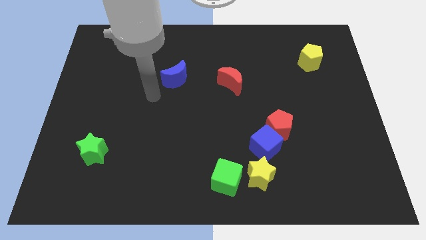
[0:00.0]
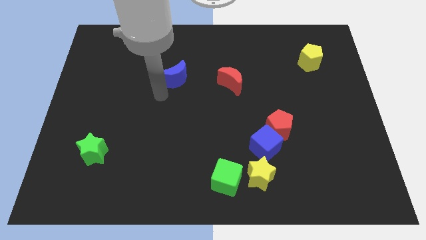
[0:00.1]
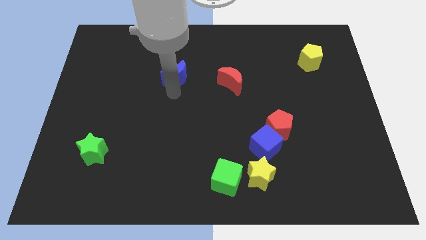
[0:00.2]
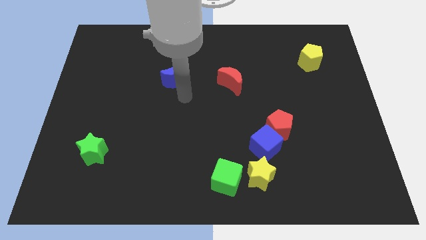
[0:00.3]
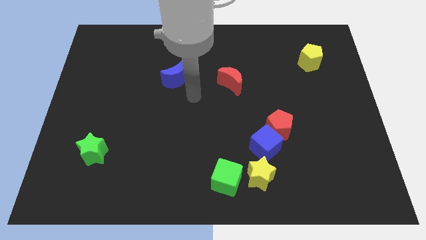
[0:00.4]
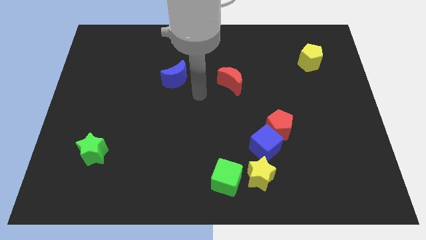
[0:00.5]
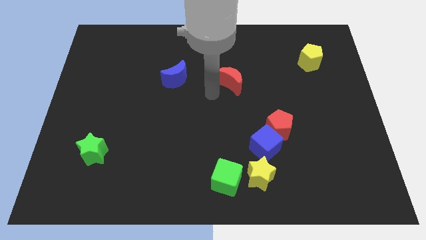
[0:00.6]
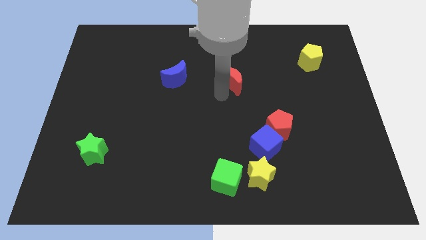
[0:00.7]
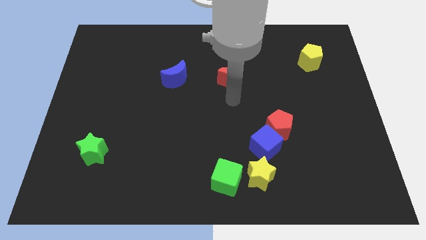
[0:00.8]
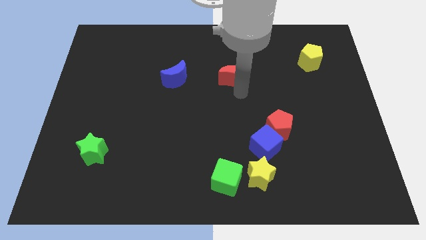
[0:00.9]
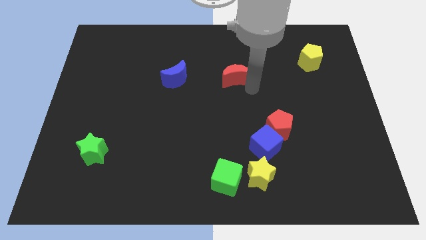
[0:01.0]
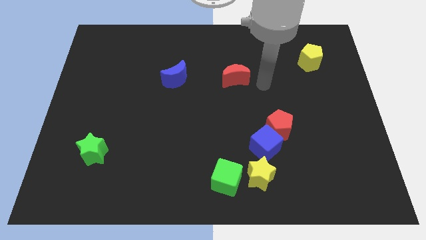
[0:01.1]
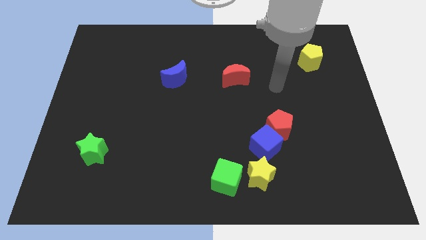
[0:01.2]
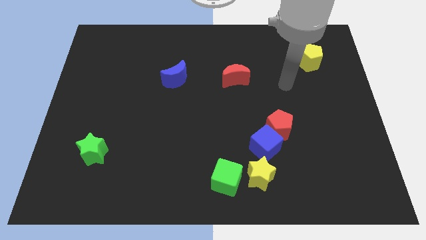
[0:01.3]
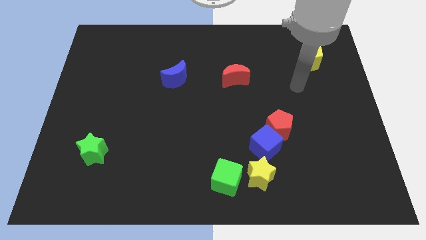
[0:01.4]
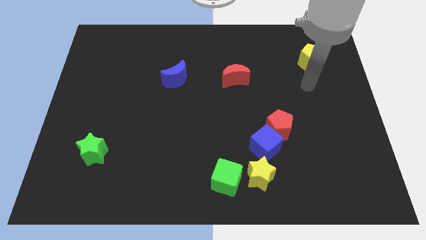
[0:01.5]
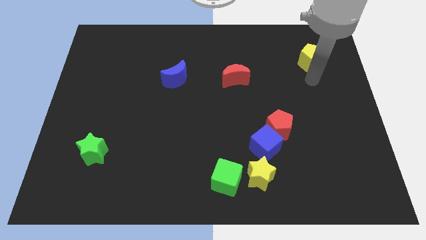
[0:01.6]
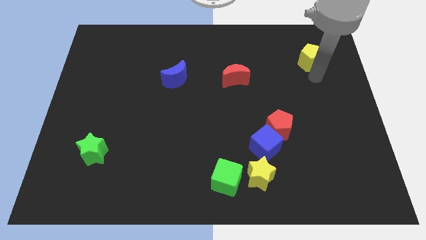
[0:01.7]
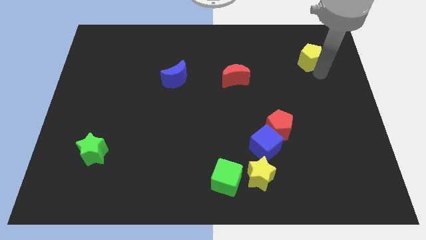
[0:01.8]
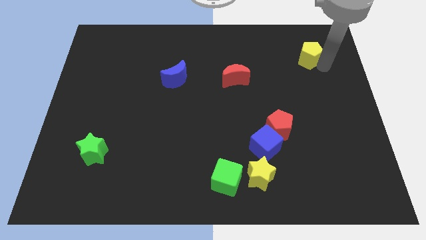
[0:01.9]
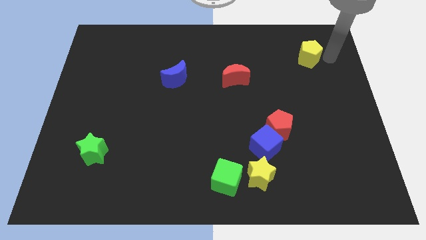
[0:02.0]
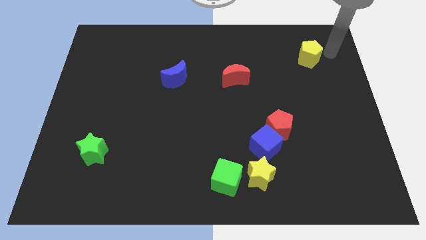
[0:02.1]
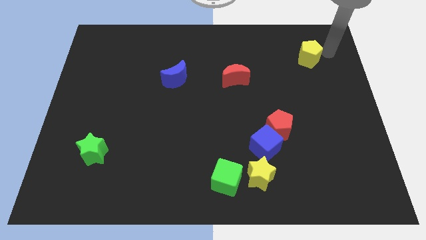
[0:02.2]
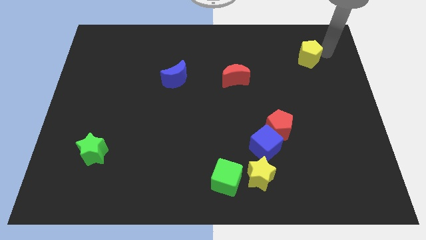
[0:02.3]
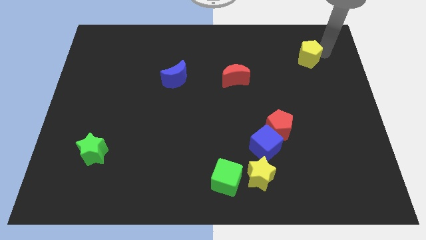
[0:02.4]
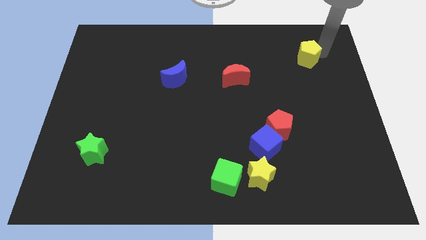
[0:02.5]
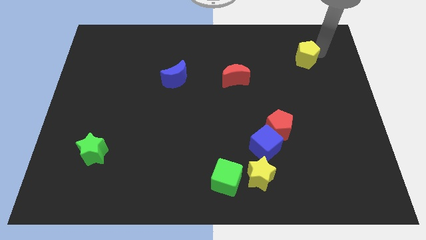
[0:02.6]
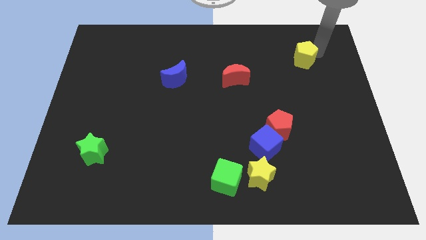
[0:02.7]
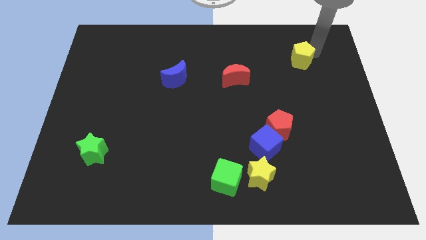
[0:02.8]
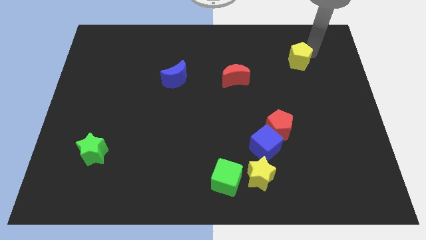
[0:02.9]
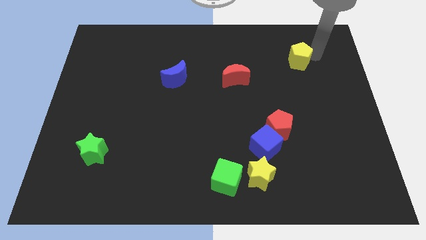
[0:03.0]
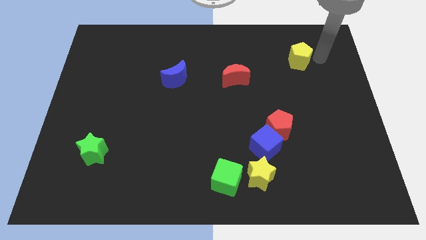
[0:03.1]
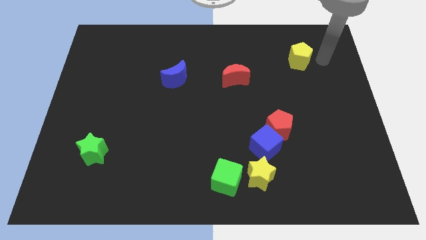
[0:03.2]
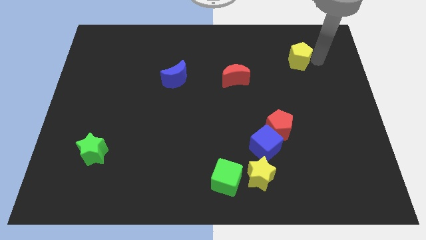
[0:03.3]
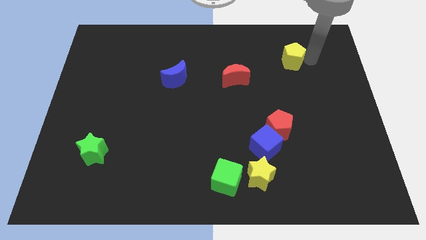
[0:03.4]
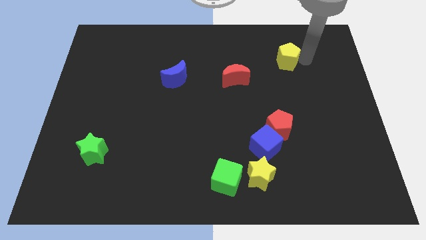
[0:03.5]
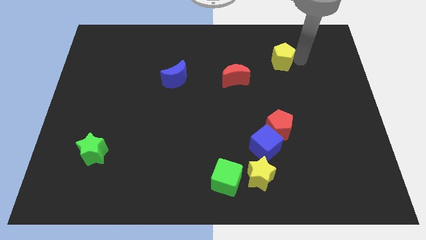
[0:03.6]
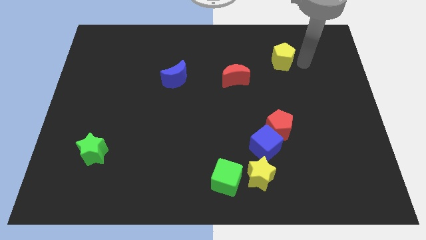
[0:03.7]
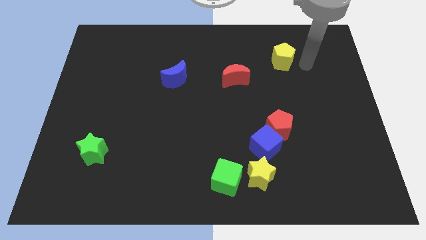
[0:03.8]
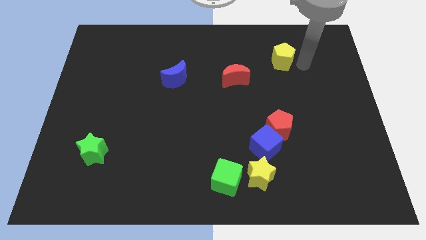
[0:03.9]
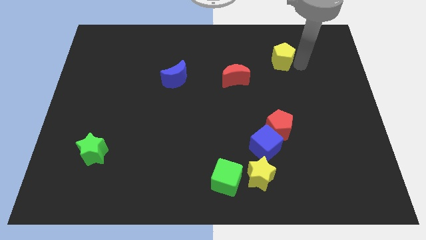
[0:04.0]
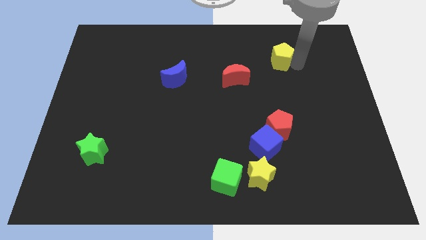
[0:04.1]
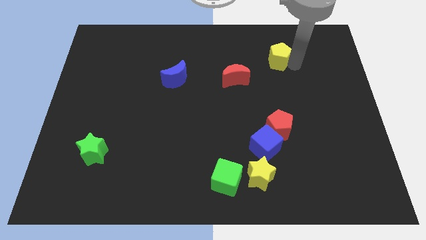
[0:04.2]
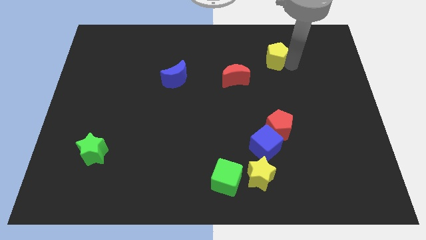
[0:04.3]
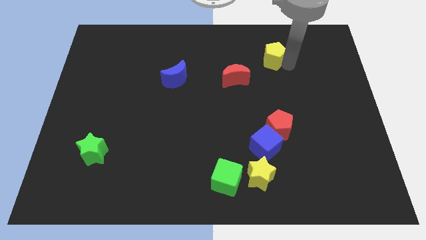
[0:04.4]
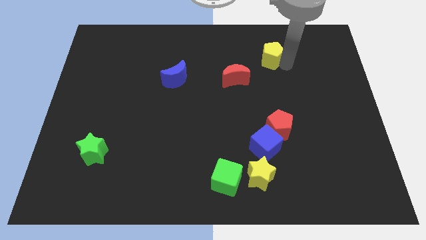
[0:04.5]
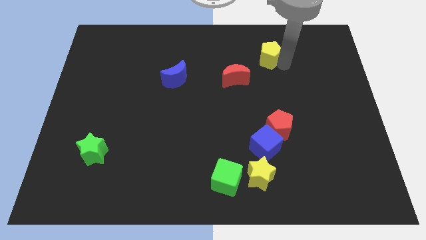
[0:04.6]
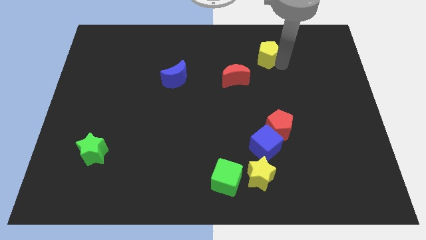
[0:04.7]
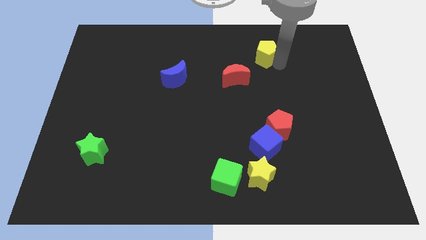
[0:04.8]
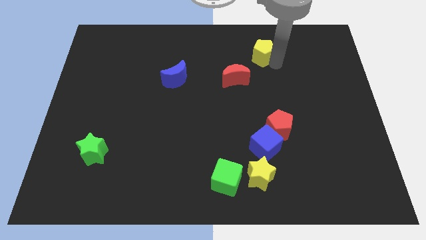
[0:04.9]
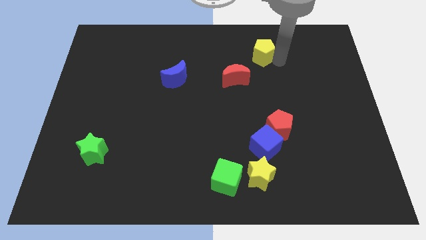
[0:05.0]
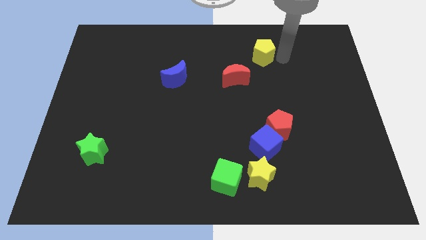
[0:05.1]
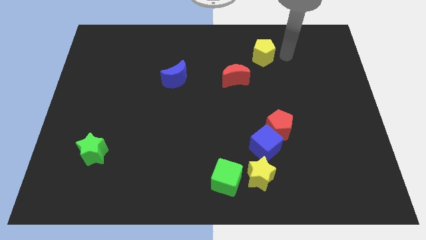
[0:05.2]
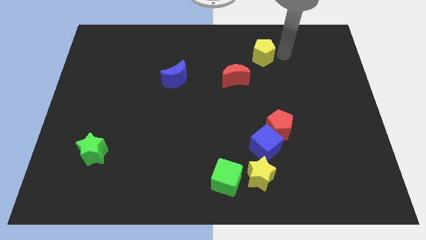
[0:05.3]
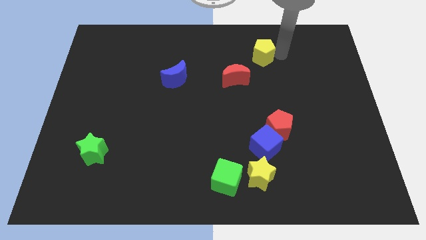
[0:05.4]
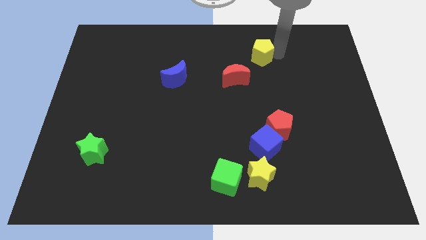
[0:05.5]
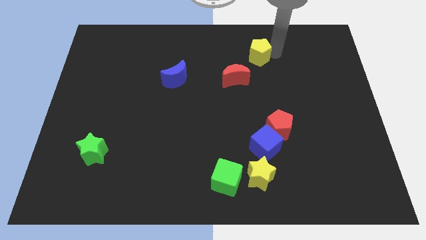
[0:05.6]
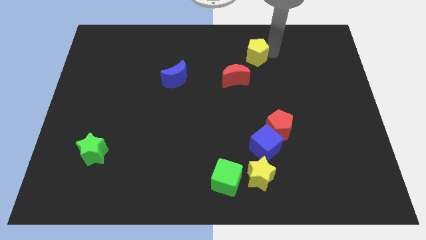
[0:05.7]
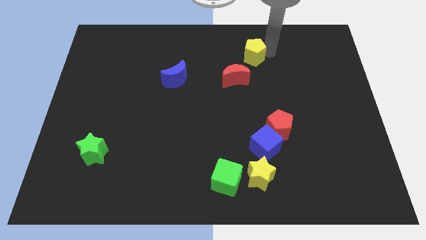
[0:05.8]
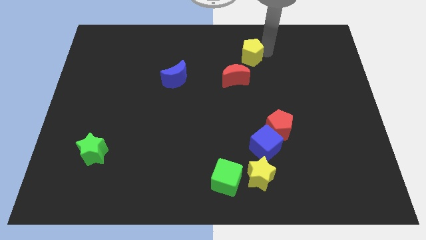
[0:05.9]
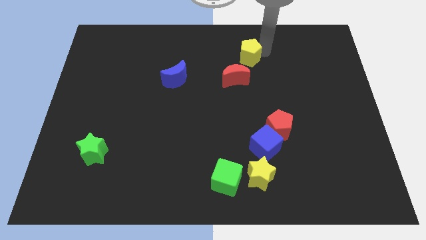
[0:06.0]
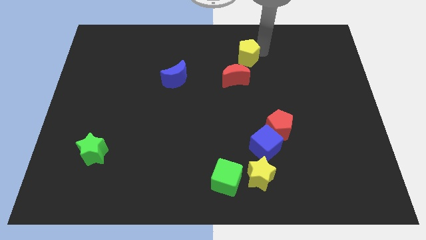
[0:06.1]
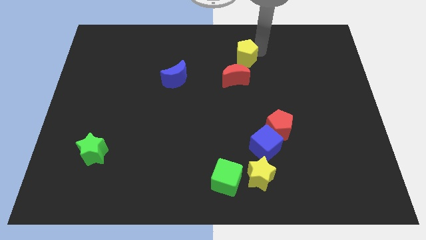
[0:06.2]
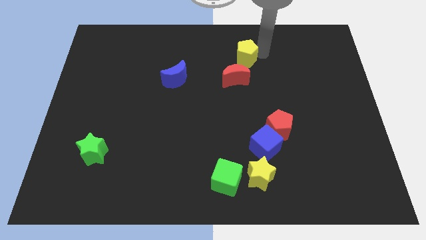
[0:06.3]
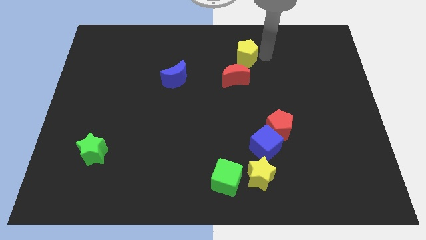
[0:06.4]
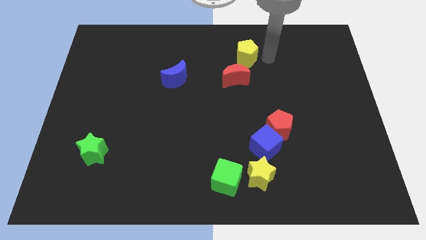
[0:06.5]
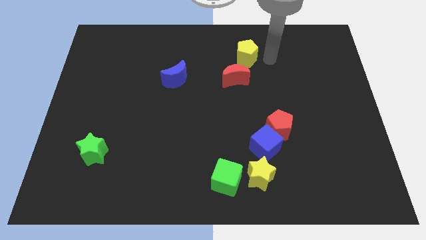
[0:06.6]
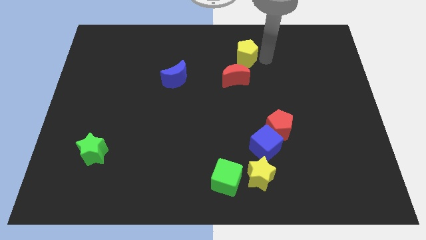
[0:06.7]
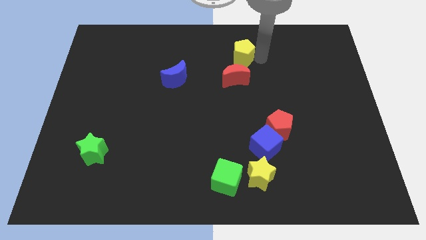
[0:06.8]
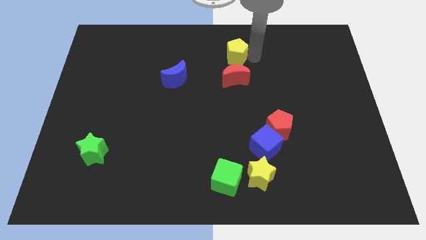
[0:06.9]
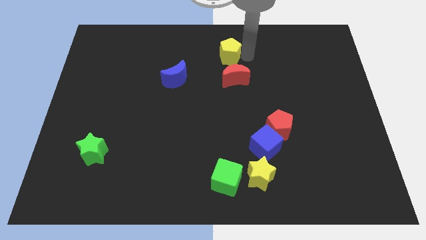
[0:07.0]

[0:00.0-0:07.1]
push the yellow pentagon to the left

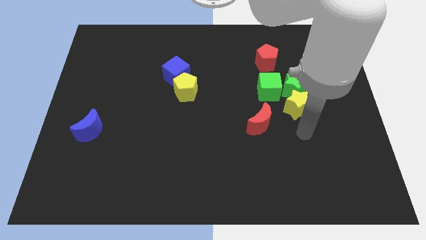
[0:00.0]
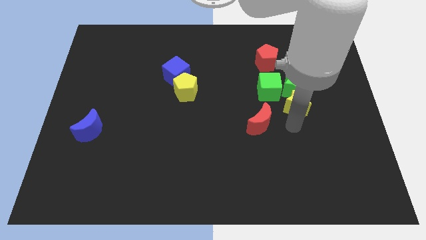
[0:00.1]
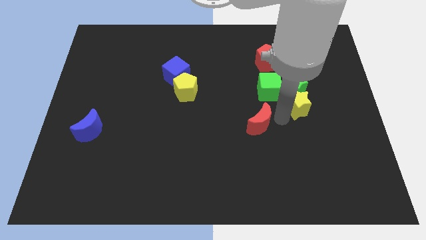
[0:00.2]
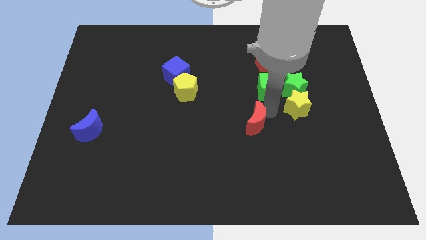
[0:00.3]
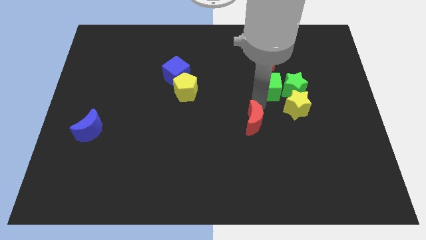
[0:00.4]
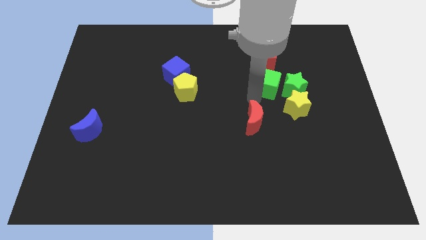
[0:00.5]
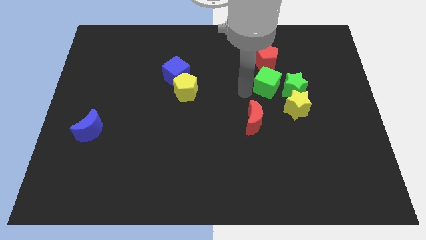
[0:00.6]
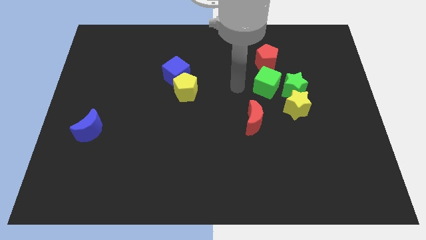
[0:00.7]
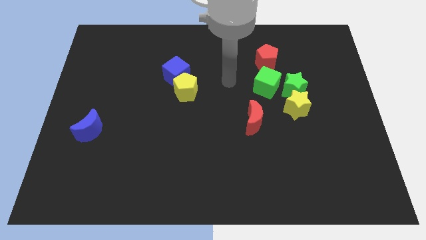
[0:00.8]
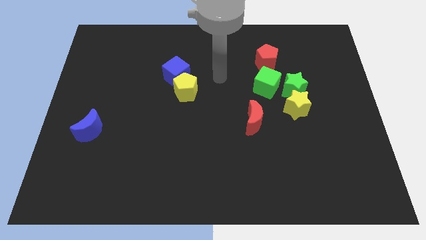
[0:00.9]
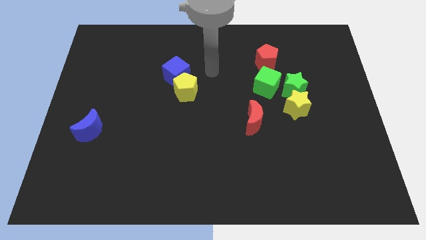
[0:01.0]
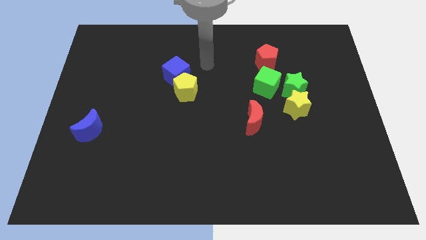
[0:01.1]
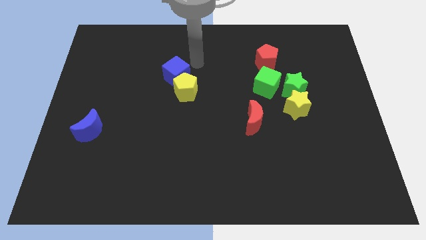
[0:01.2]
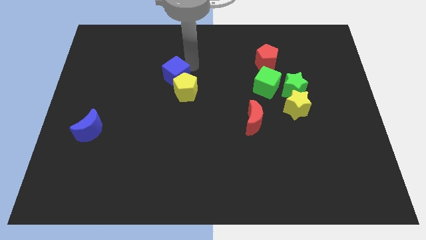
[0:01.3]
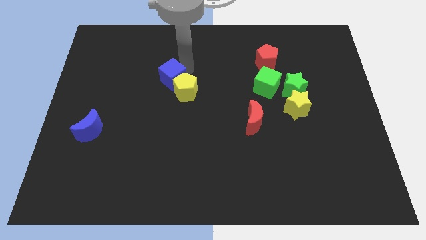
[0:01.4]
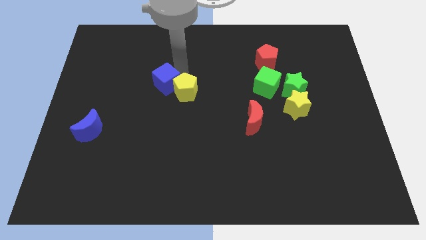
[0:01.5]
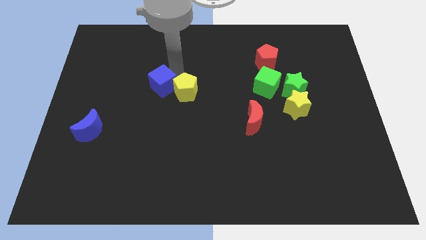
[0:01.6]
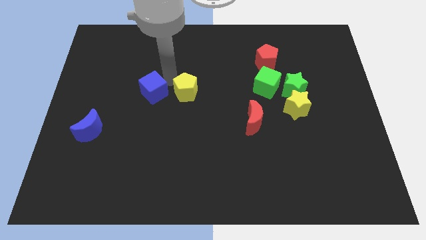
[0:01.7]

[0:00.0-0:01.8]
move the blue cube a little diagonally down and to the left
